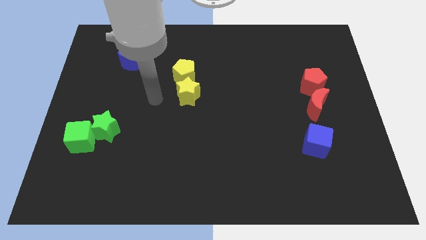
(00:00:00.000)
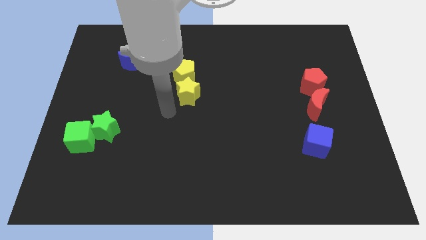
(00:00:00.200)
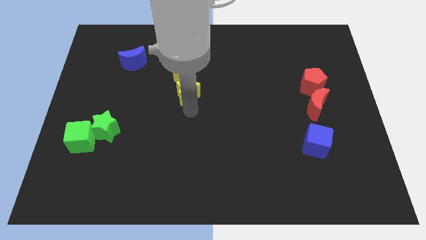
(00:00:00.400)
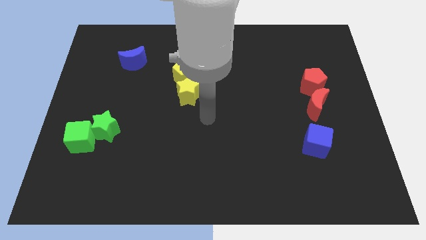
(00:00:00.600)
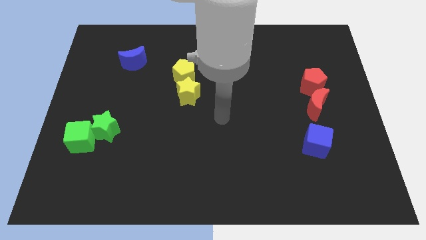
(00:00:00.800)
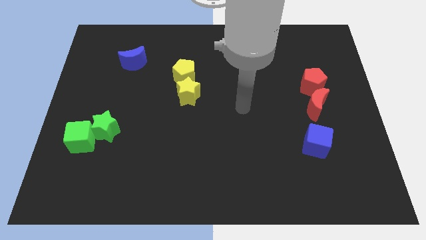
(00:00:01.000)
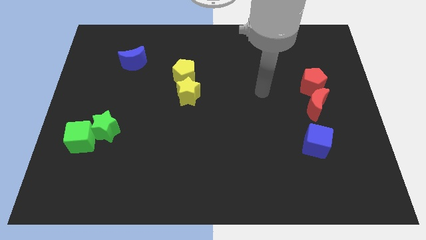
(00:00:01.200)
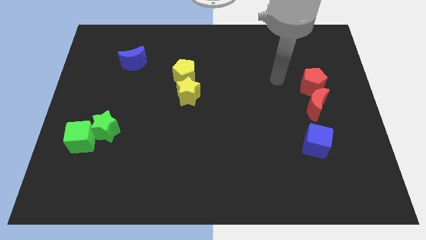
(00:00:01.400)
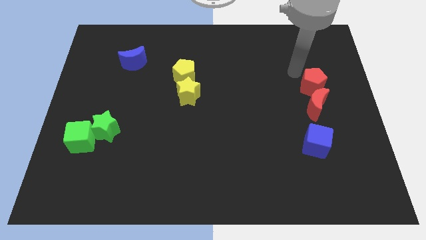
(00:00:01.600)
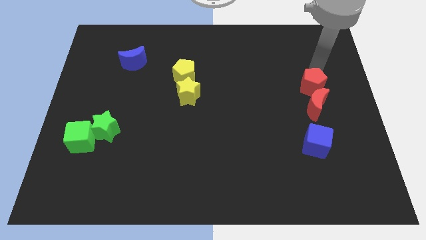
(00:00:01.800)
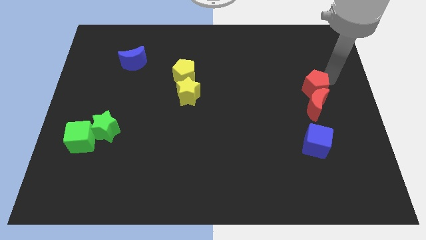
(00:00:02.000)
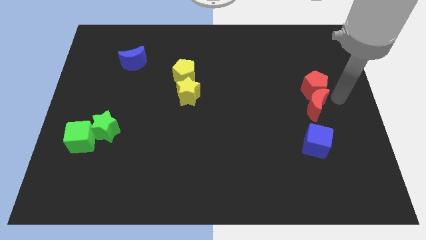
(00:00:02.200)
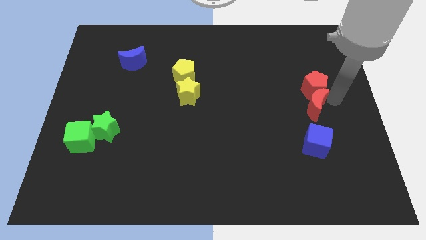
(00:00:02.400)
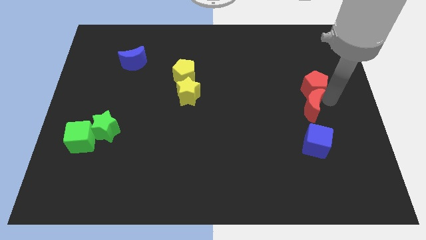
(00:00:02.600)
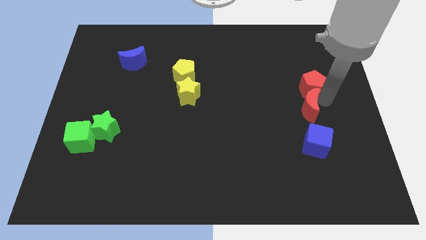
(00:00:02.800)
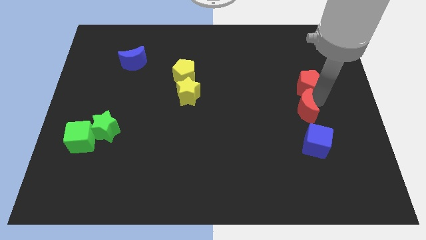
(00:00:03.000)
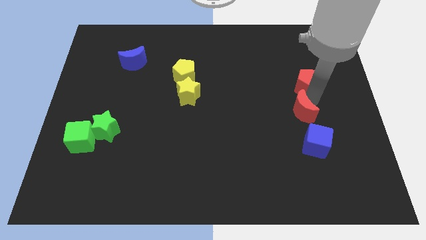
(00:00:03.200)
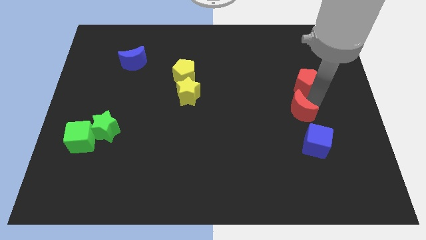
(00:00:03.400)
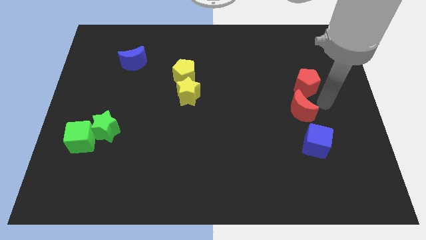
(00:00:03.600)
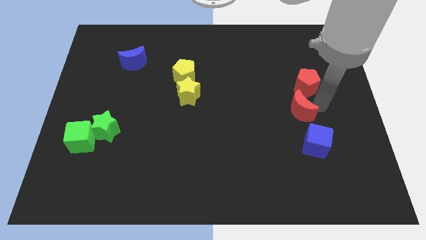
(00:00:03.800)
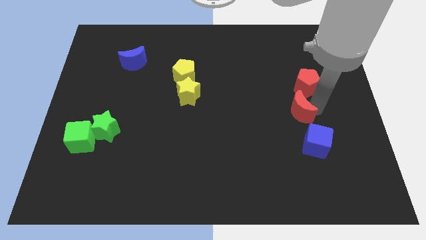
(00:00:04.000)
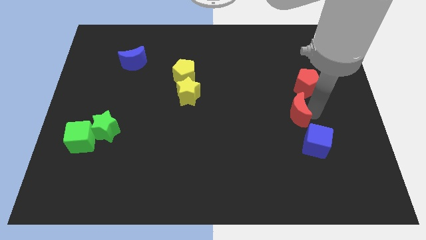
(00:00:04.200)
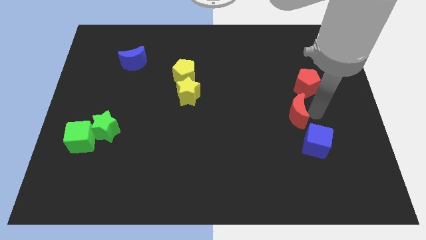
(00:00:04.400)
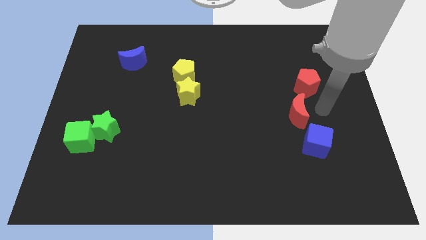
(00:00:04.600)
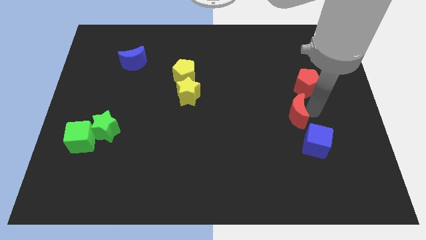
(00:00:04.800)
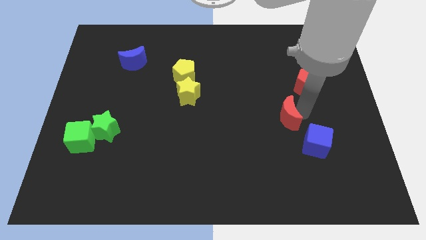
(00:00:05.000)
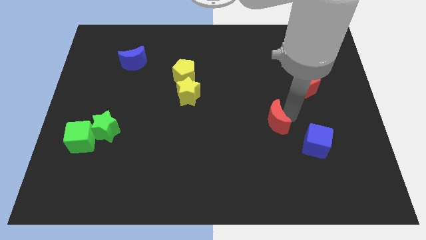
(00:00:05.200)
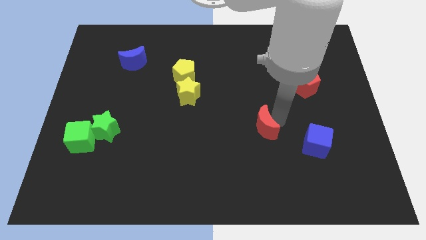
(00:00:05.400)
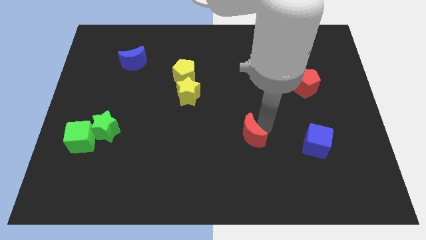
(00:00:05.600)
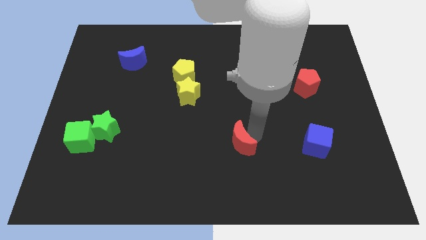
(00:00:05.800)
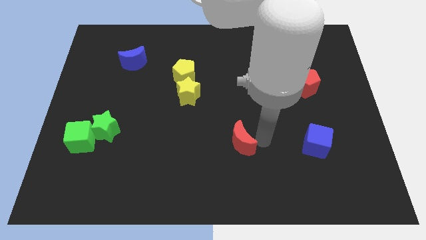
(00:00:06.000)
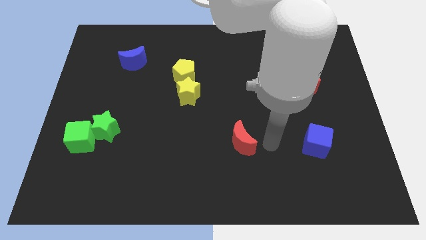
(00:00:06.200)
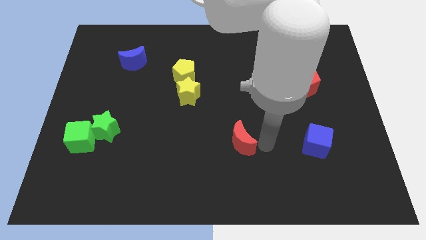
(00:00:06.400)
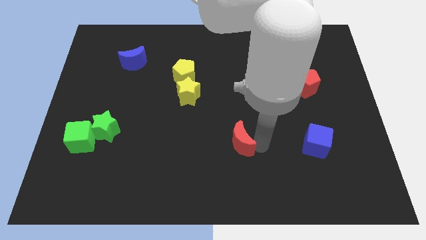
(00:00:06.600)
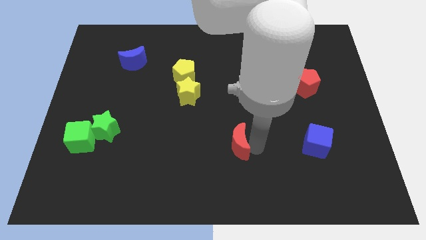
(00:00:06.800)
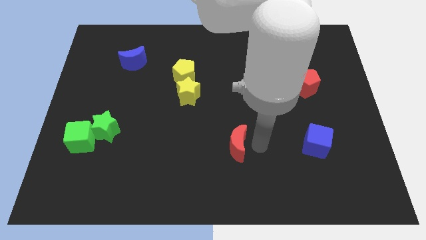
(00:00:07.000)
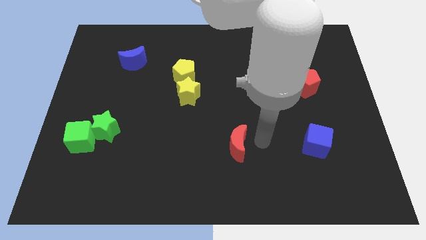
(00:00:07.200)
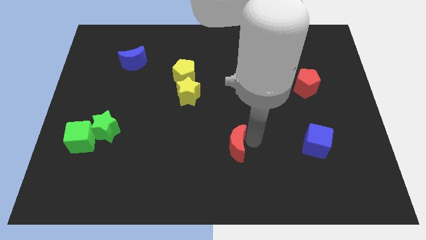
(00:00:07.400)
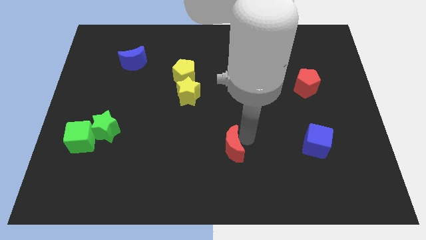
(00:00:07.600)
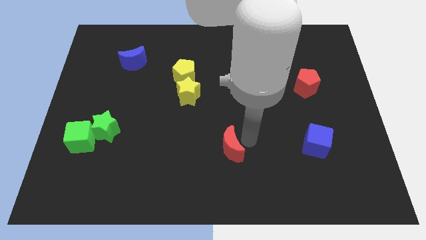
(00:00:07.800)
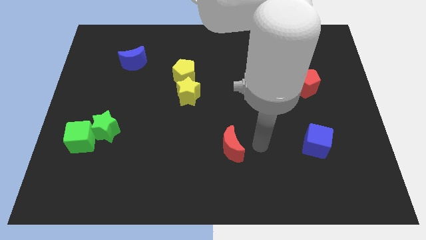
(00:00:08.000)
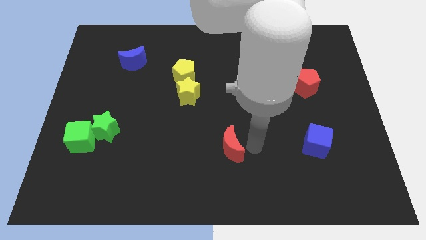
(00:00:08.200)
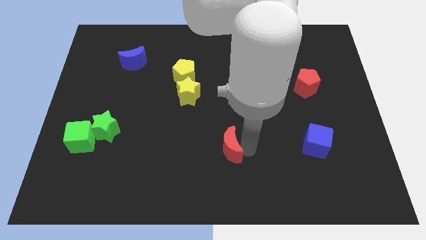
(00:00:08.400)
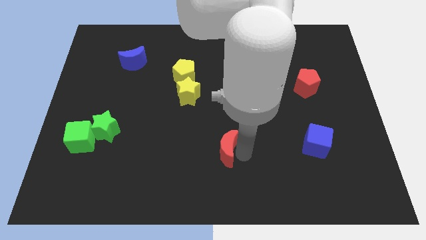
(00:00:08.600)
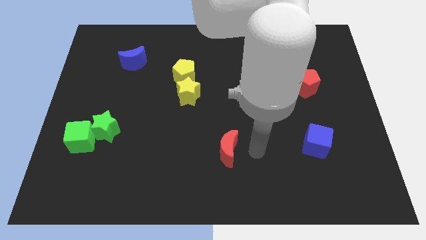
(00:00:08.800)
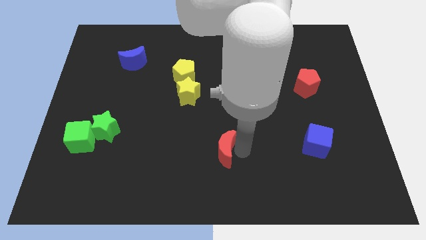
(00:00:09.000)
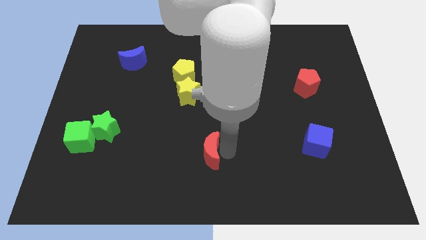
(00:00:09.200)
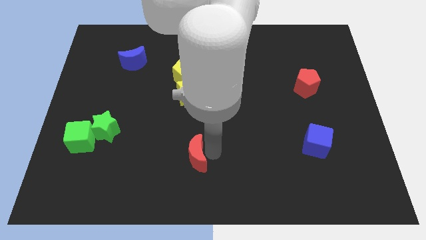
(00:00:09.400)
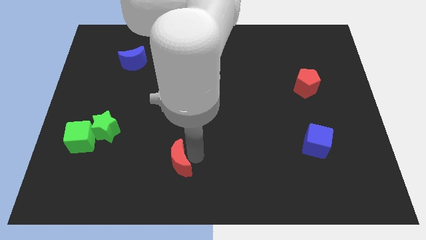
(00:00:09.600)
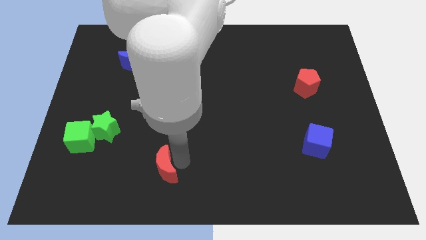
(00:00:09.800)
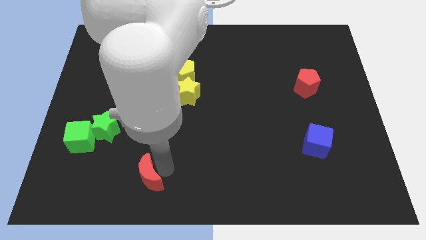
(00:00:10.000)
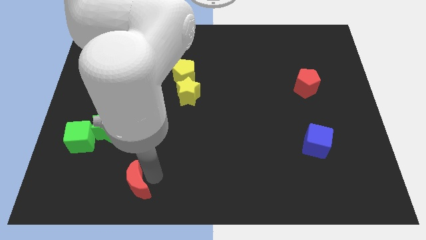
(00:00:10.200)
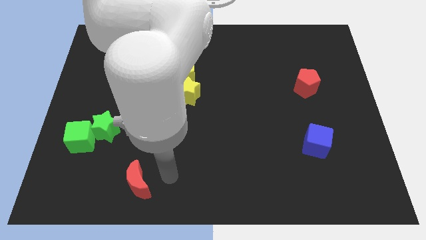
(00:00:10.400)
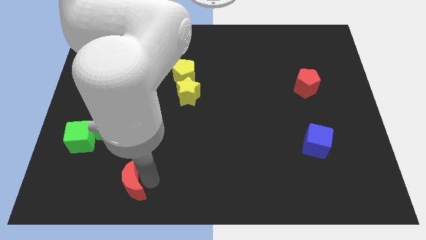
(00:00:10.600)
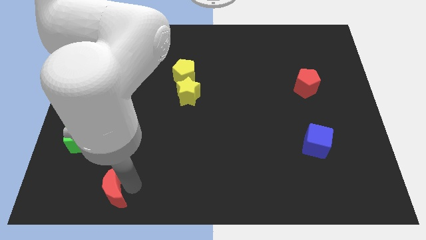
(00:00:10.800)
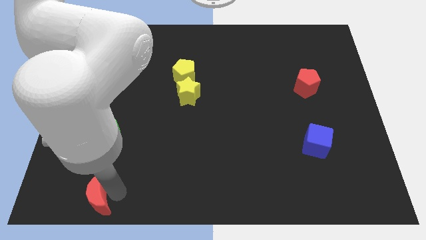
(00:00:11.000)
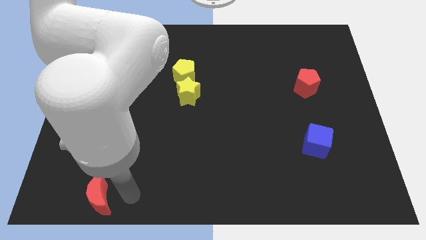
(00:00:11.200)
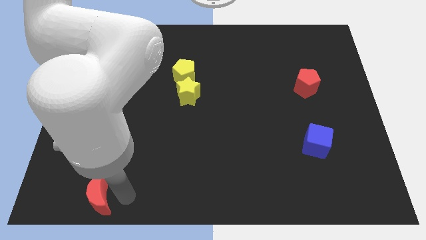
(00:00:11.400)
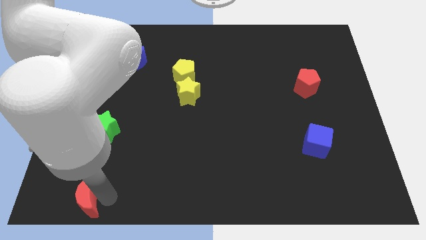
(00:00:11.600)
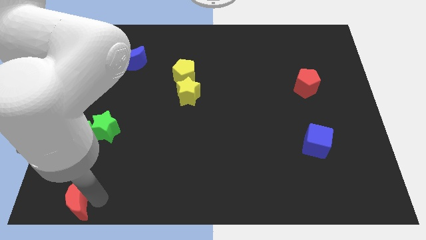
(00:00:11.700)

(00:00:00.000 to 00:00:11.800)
slide the red moon to the lower left corner

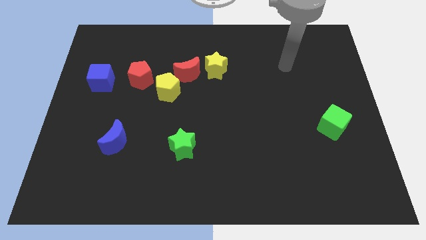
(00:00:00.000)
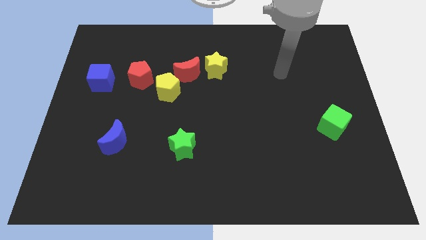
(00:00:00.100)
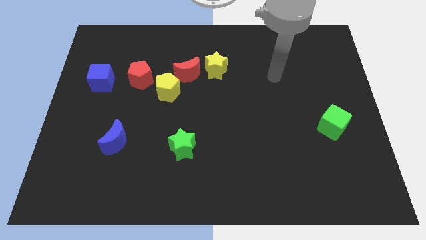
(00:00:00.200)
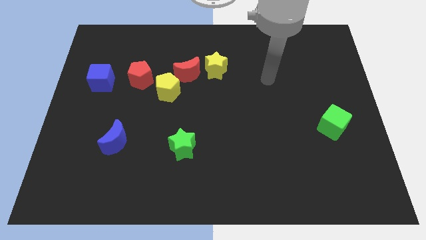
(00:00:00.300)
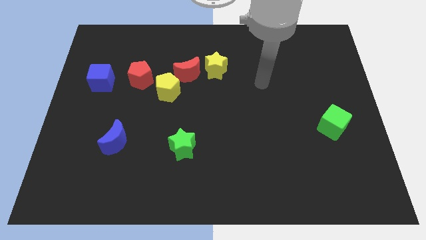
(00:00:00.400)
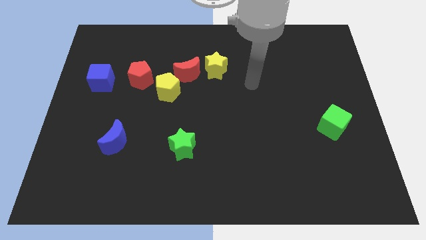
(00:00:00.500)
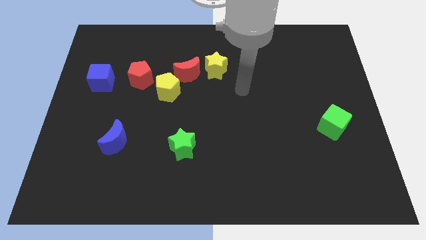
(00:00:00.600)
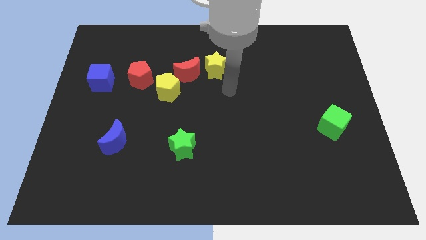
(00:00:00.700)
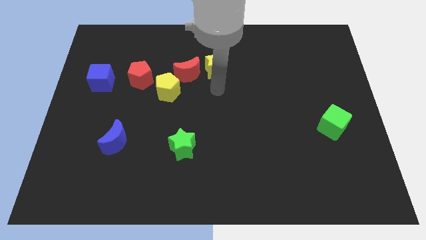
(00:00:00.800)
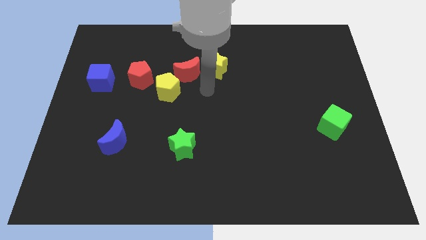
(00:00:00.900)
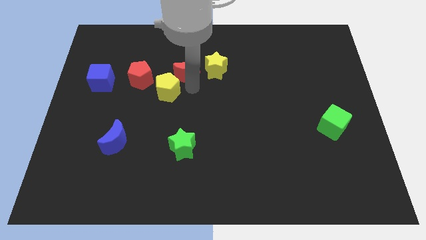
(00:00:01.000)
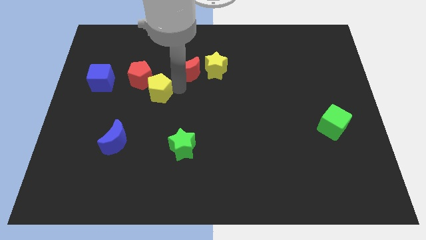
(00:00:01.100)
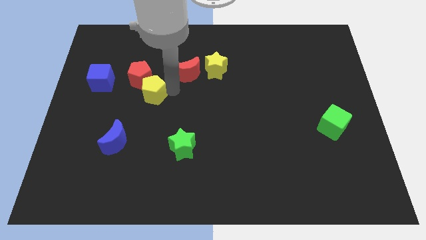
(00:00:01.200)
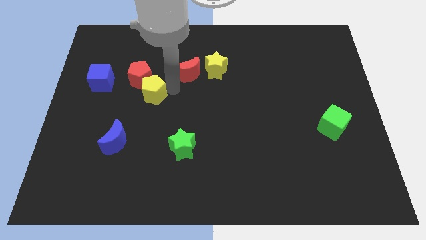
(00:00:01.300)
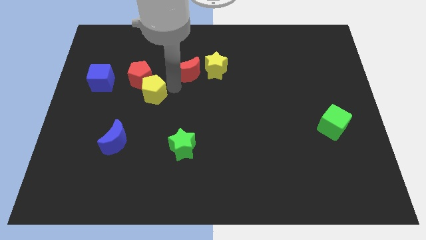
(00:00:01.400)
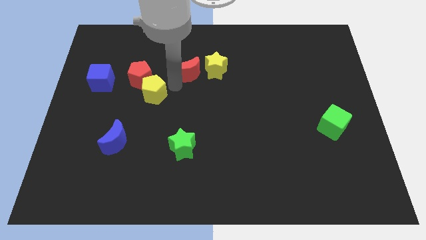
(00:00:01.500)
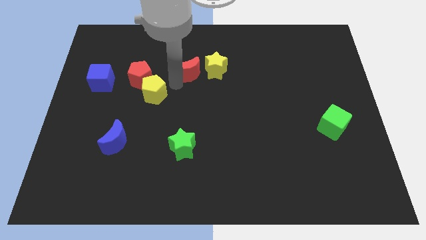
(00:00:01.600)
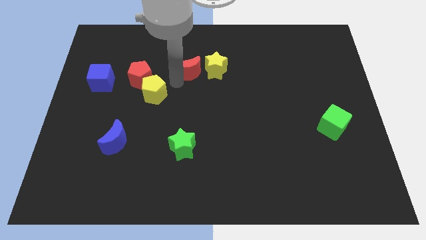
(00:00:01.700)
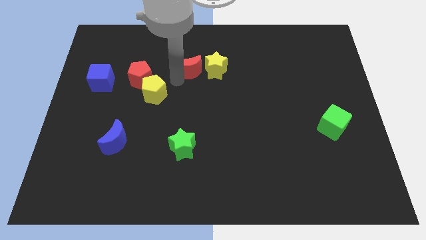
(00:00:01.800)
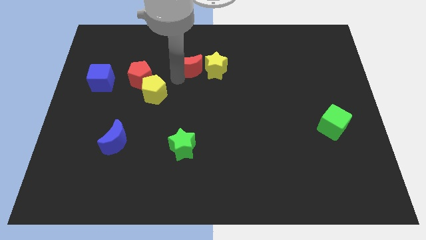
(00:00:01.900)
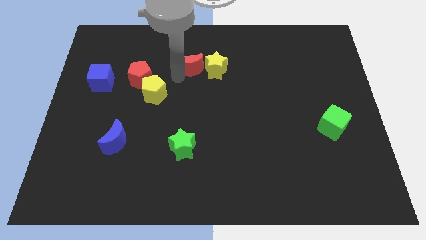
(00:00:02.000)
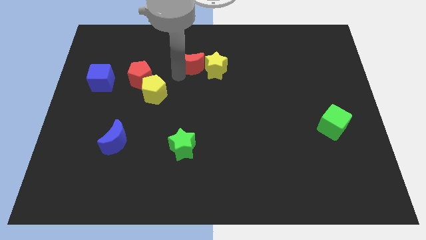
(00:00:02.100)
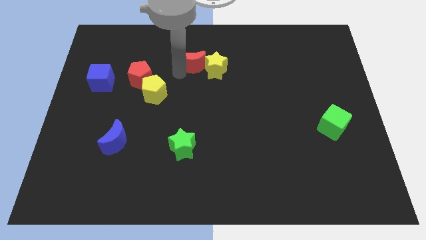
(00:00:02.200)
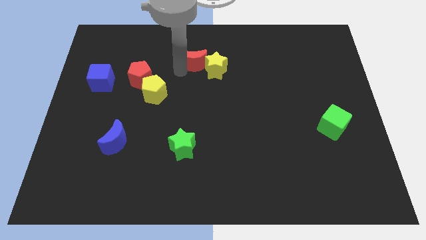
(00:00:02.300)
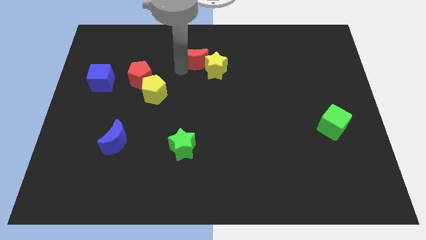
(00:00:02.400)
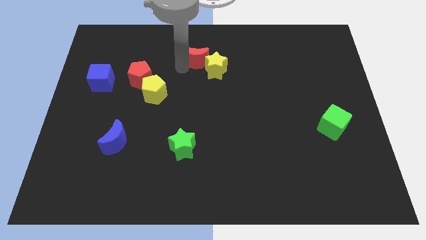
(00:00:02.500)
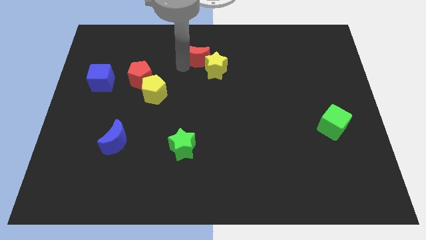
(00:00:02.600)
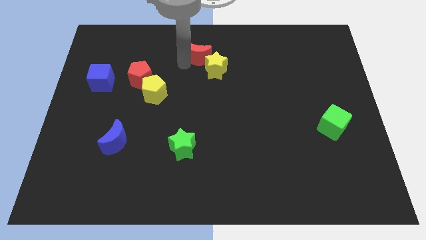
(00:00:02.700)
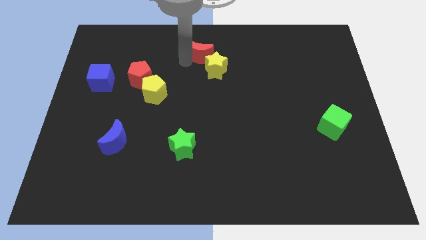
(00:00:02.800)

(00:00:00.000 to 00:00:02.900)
push the red moon to the top side
